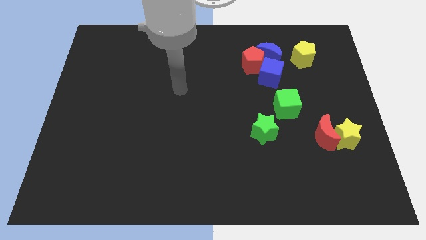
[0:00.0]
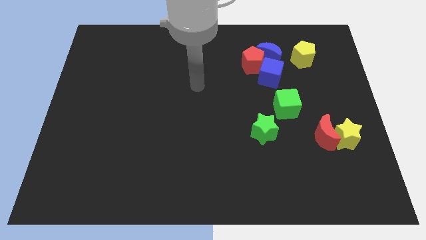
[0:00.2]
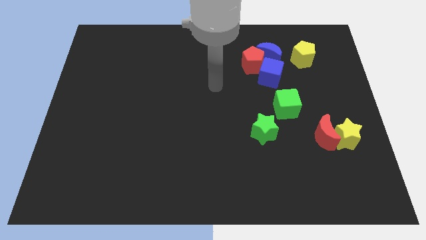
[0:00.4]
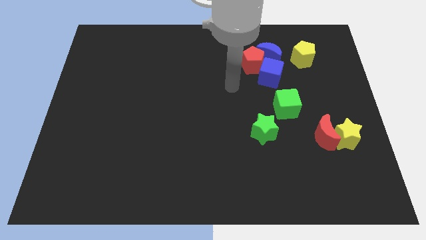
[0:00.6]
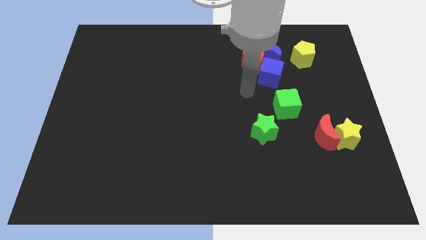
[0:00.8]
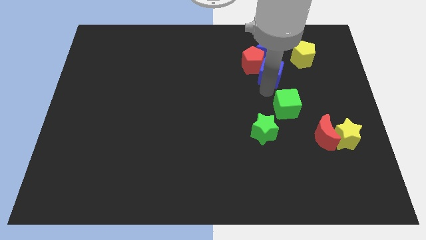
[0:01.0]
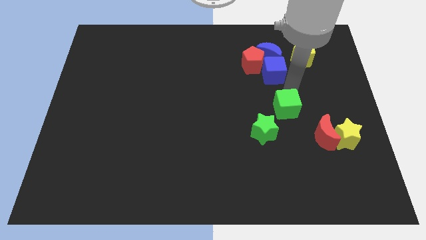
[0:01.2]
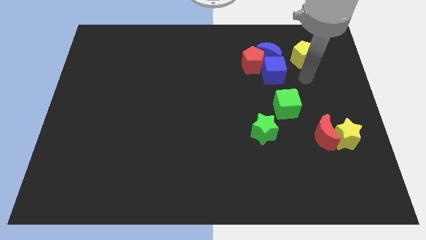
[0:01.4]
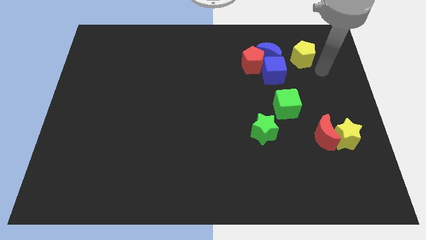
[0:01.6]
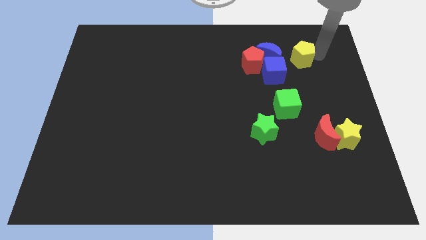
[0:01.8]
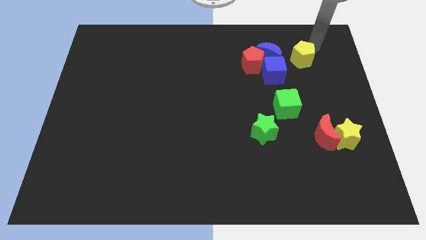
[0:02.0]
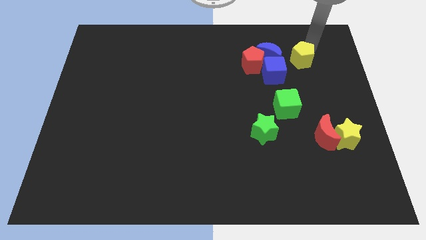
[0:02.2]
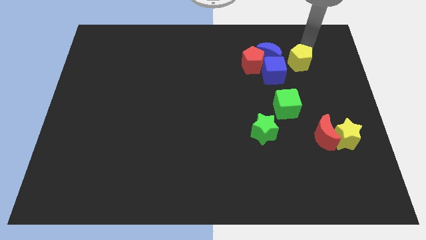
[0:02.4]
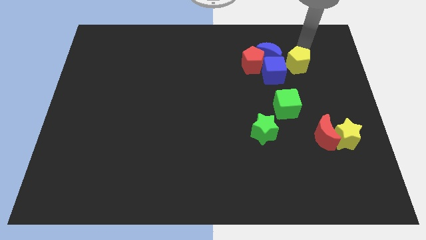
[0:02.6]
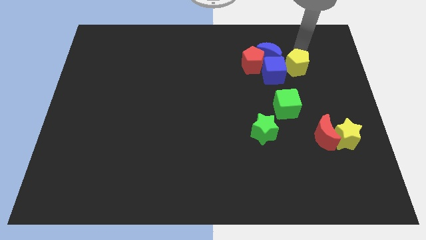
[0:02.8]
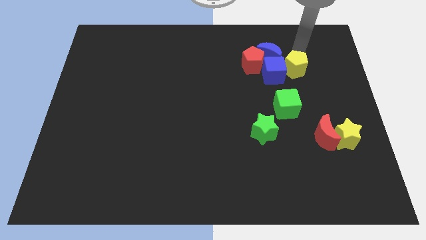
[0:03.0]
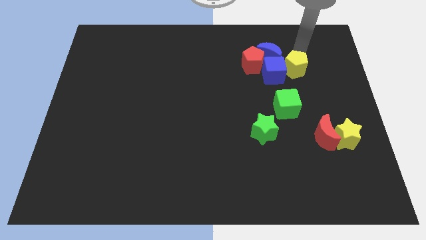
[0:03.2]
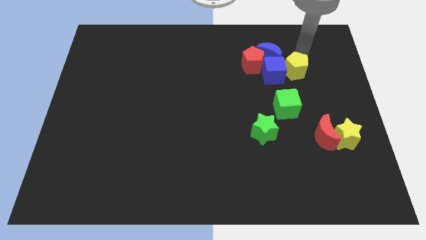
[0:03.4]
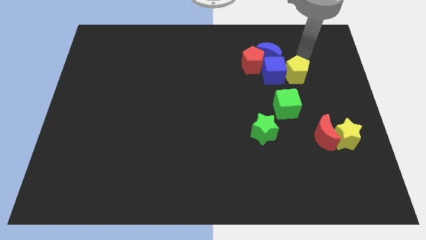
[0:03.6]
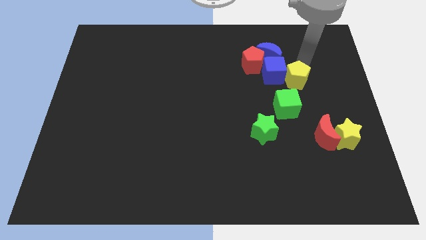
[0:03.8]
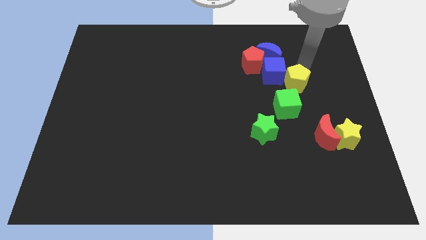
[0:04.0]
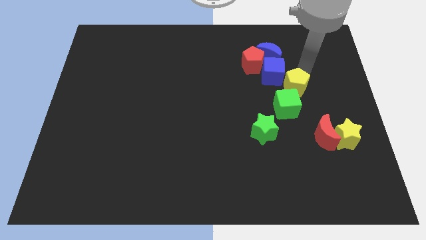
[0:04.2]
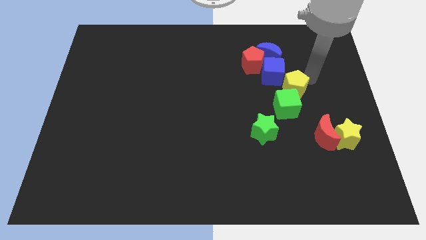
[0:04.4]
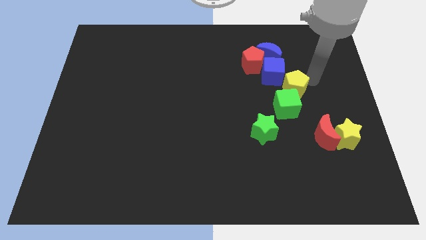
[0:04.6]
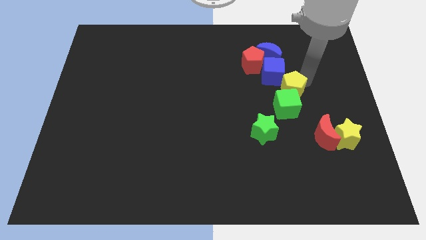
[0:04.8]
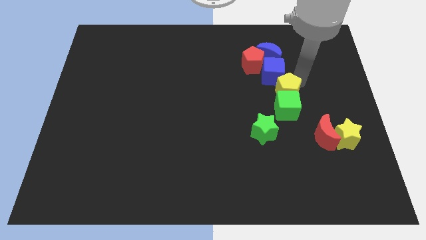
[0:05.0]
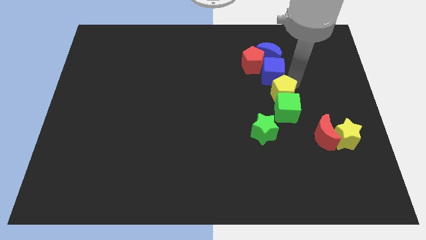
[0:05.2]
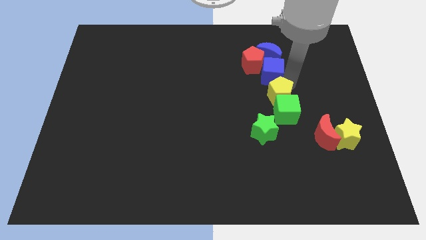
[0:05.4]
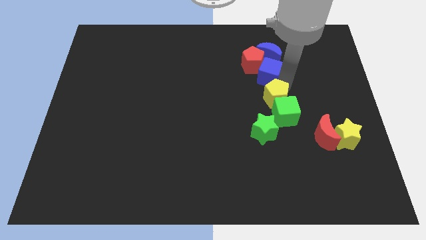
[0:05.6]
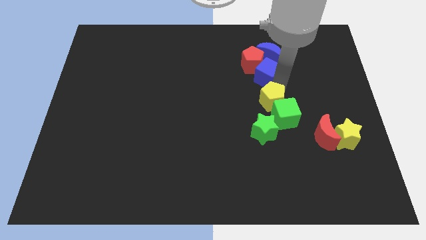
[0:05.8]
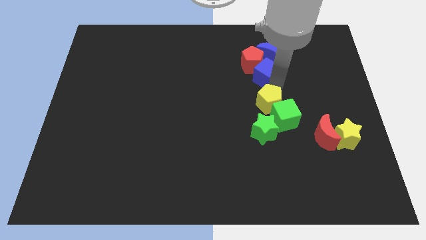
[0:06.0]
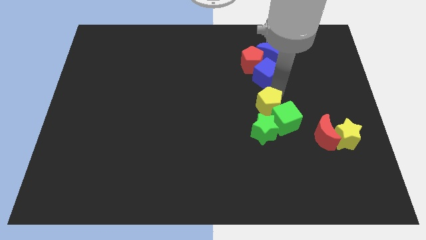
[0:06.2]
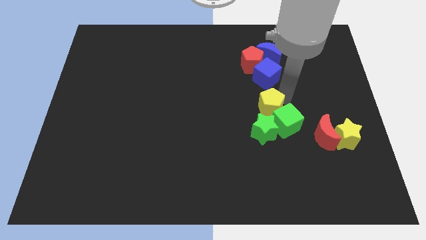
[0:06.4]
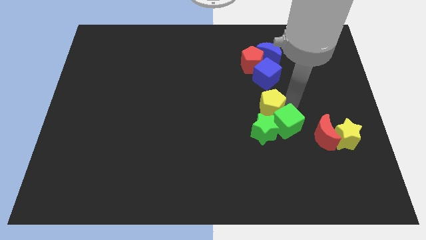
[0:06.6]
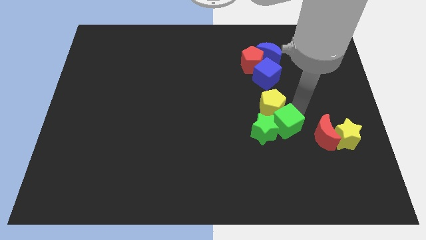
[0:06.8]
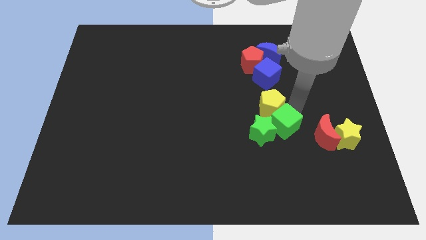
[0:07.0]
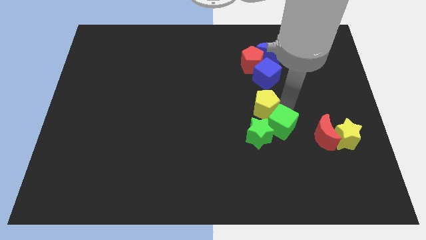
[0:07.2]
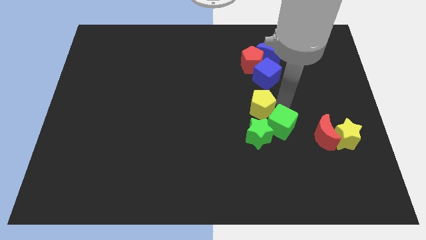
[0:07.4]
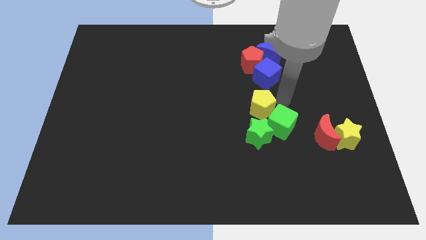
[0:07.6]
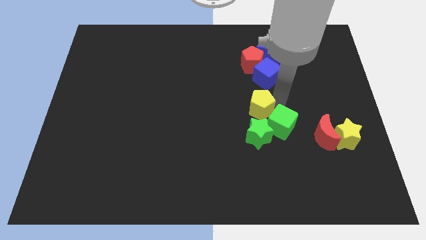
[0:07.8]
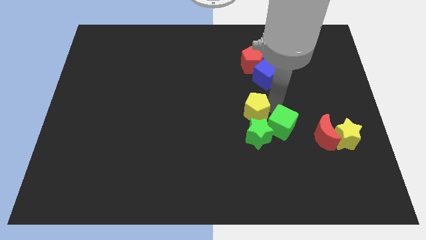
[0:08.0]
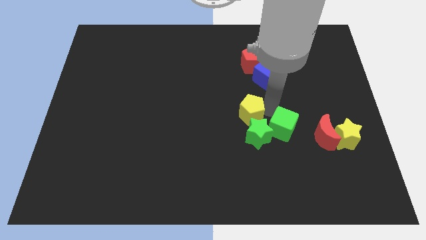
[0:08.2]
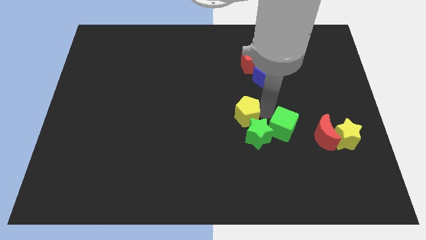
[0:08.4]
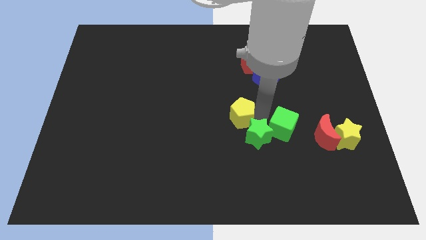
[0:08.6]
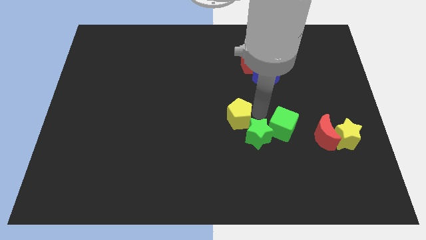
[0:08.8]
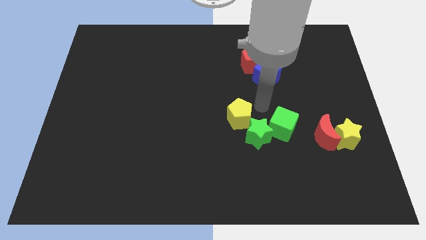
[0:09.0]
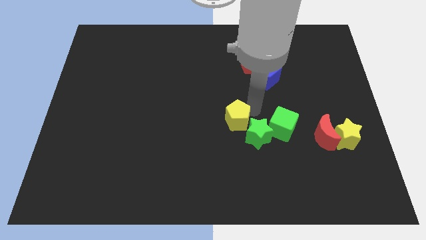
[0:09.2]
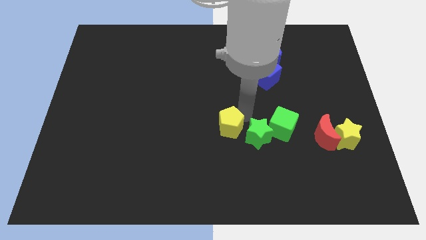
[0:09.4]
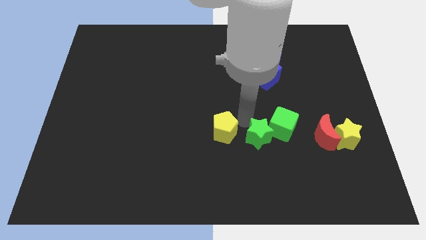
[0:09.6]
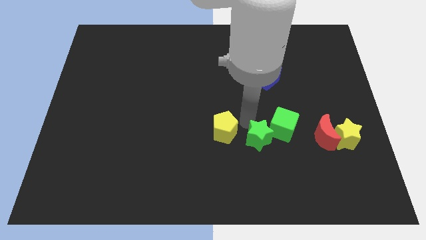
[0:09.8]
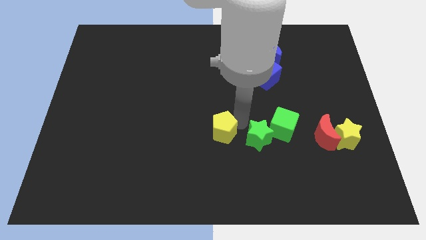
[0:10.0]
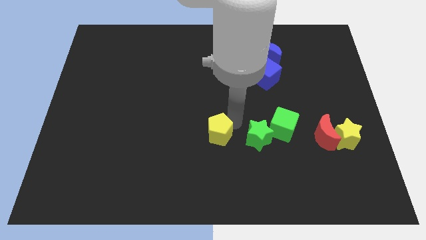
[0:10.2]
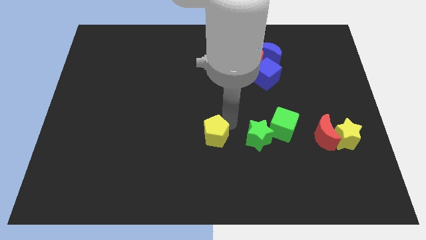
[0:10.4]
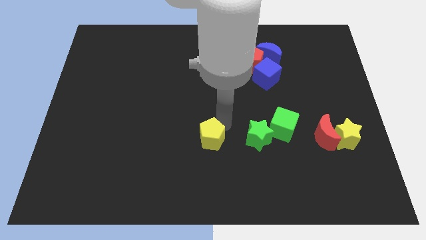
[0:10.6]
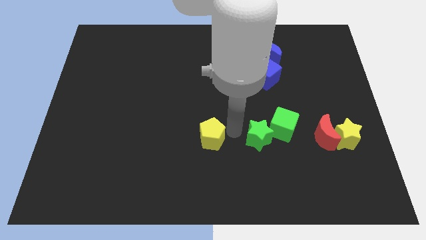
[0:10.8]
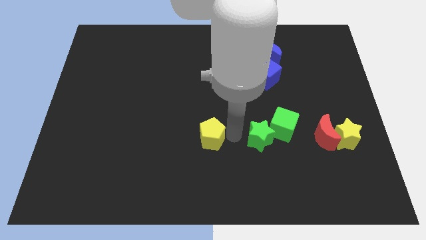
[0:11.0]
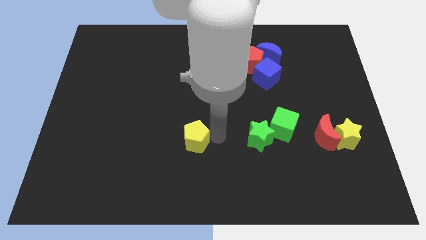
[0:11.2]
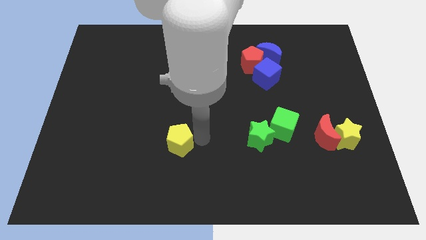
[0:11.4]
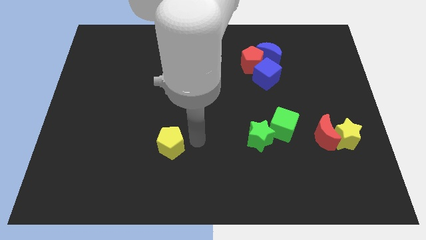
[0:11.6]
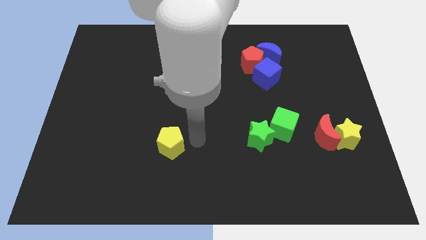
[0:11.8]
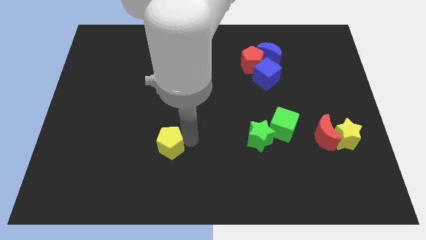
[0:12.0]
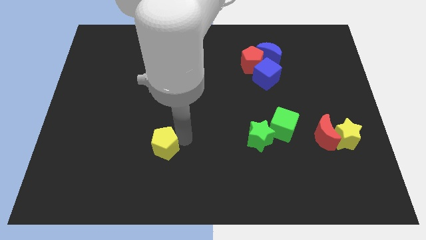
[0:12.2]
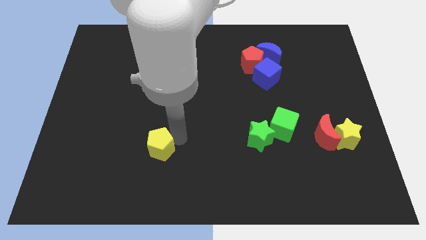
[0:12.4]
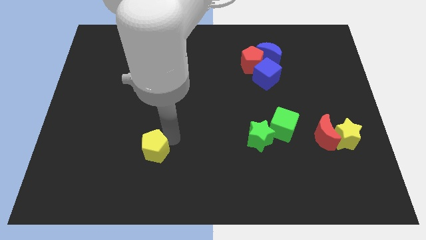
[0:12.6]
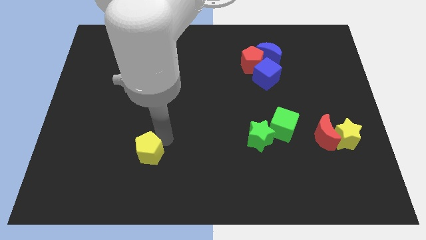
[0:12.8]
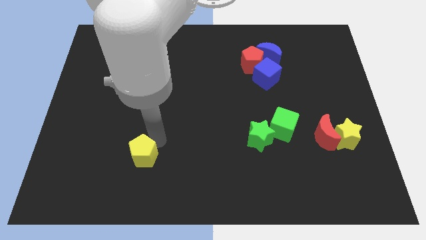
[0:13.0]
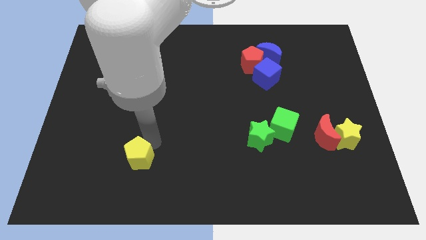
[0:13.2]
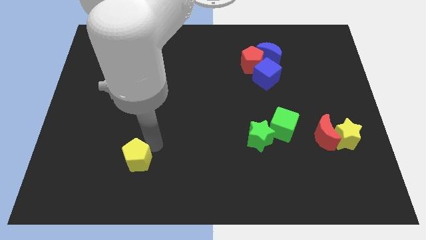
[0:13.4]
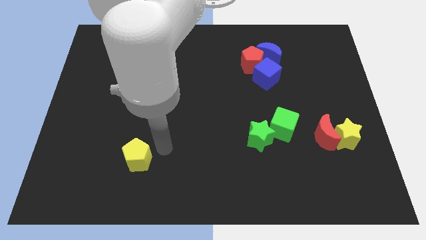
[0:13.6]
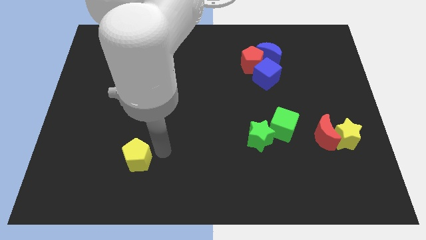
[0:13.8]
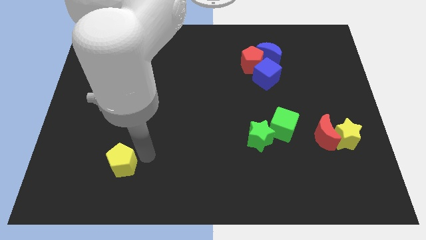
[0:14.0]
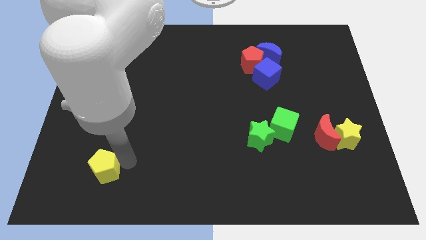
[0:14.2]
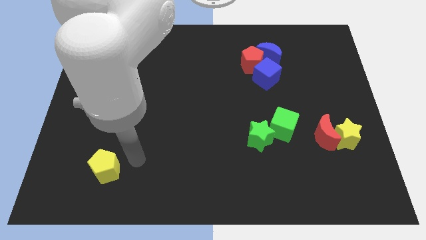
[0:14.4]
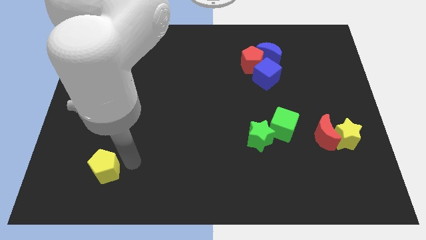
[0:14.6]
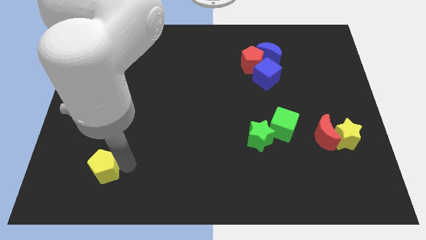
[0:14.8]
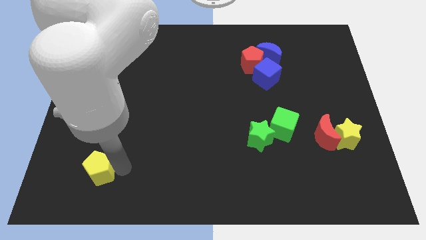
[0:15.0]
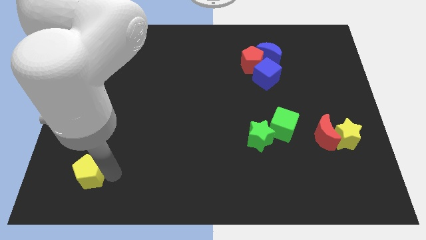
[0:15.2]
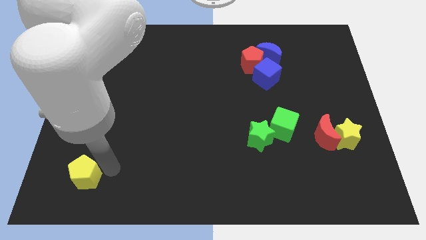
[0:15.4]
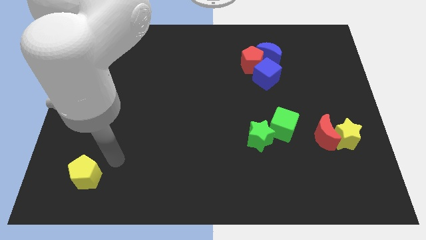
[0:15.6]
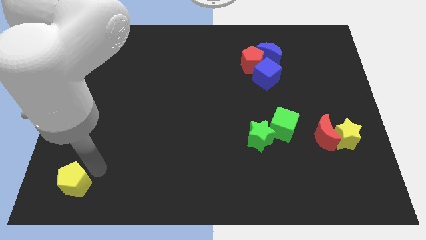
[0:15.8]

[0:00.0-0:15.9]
push the yellow pentagon to the lower left corner
